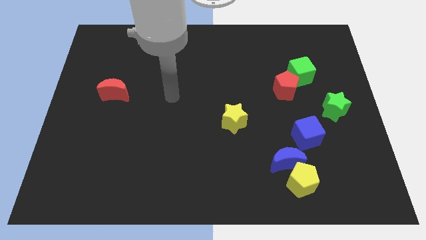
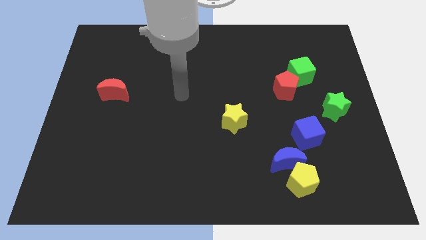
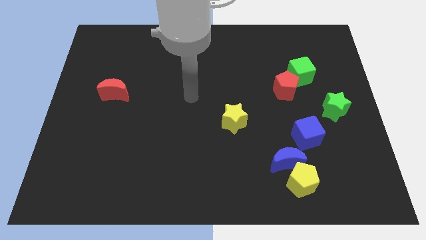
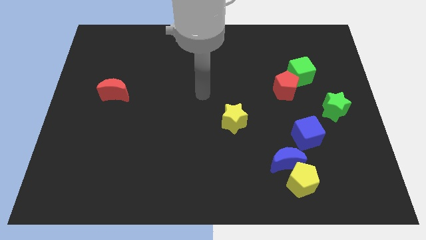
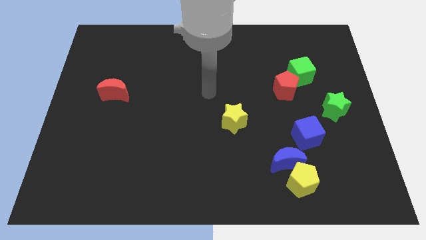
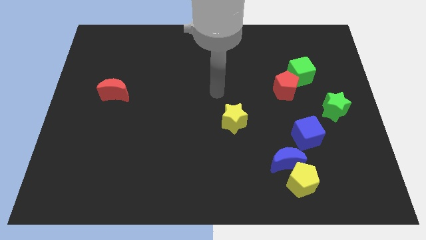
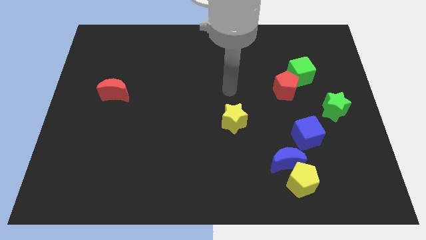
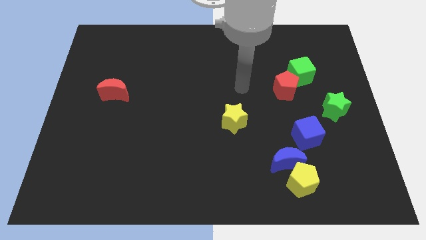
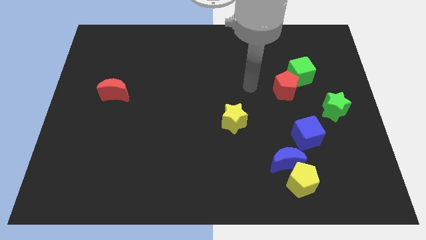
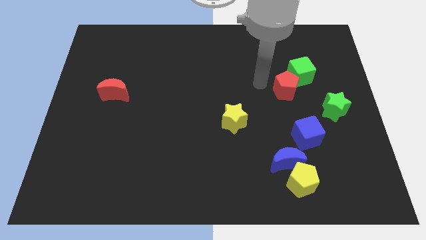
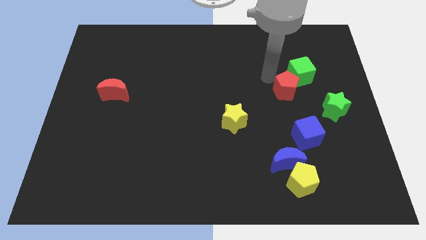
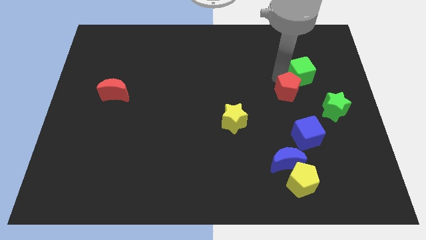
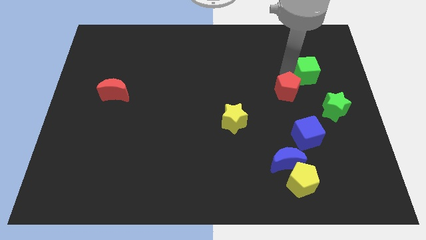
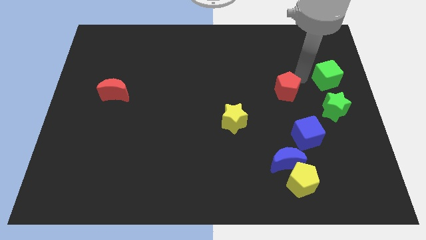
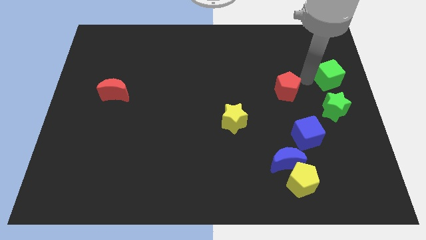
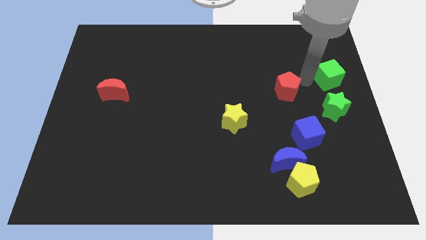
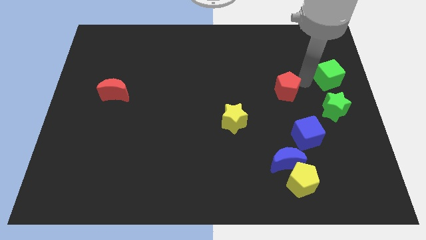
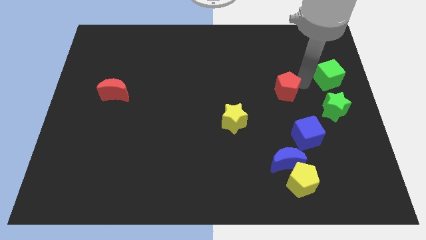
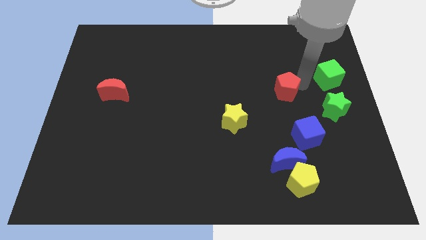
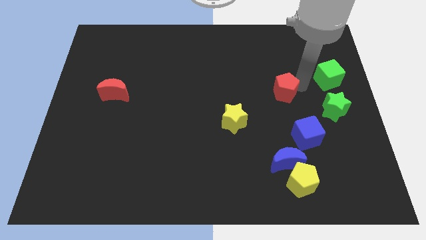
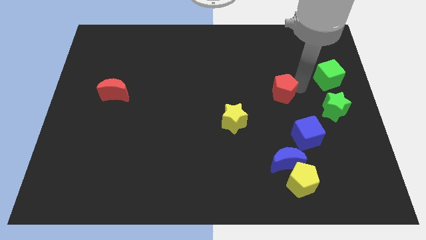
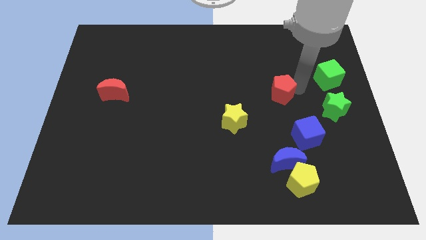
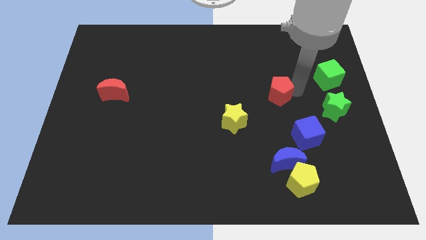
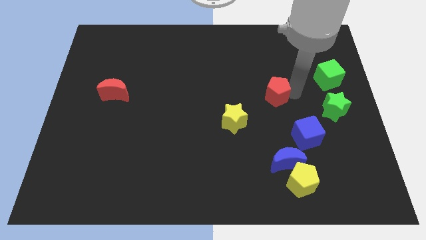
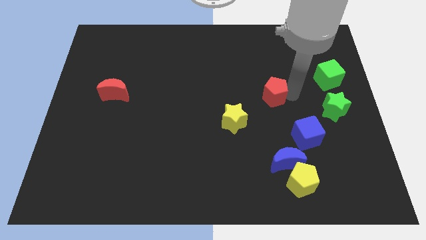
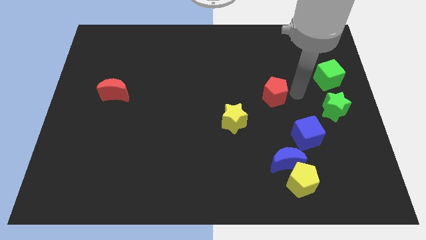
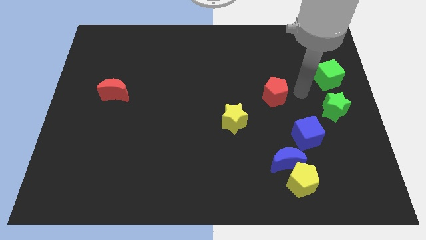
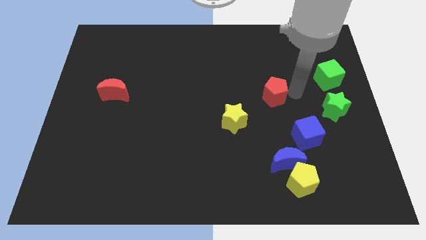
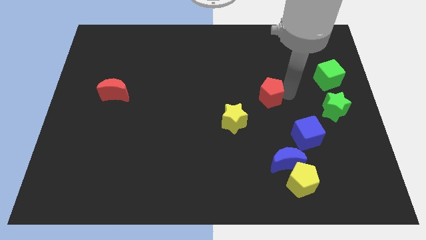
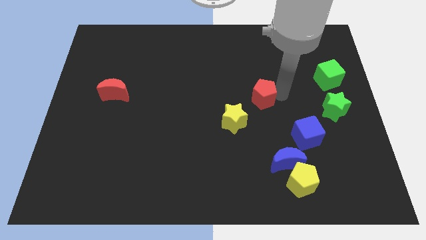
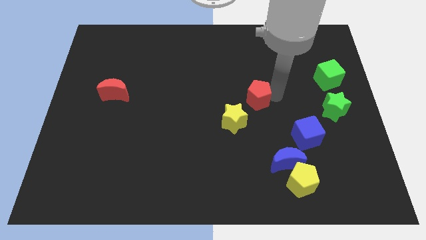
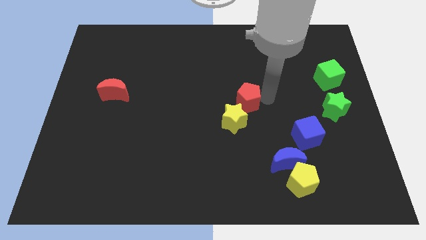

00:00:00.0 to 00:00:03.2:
slide the red pentagon a little left

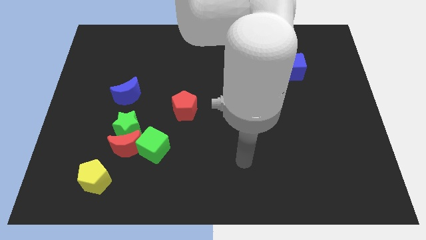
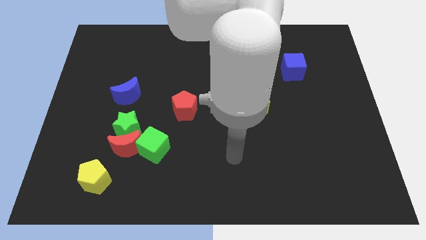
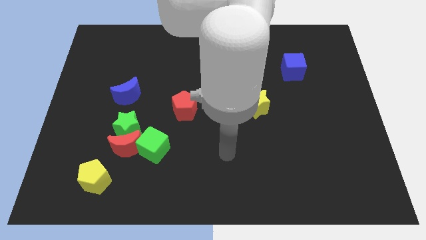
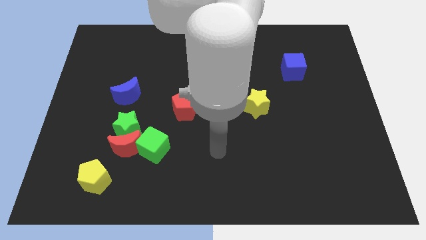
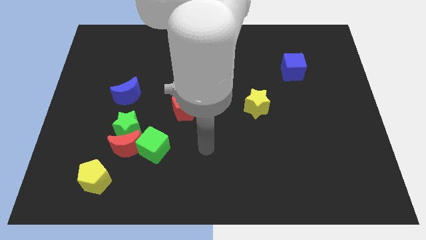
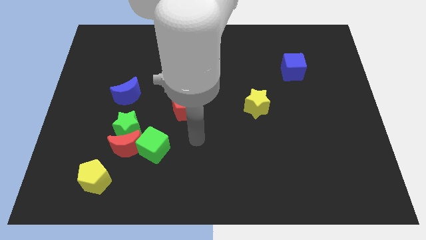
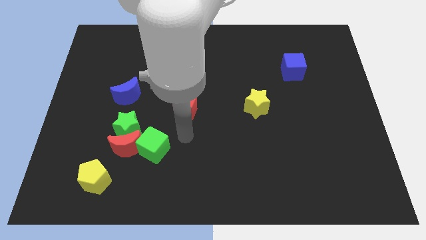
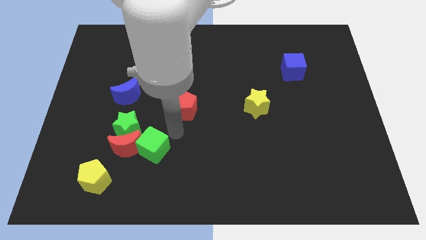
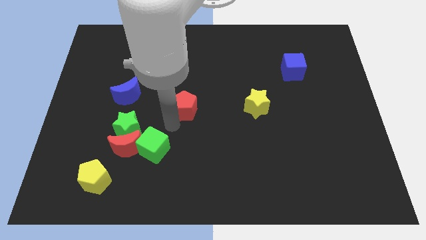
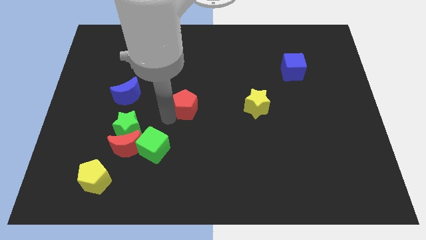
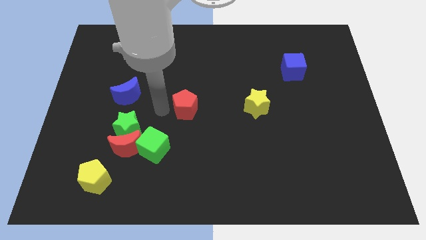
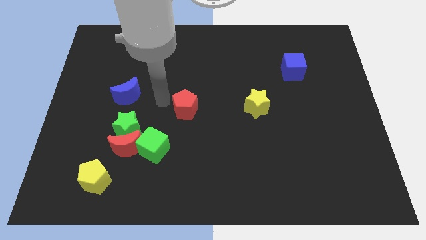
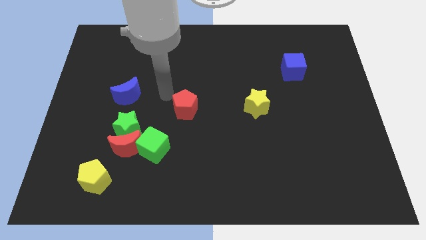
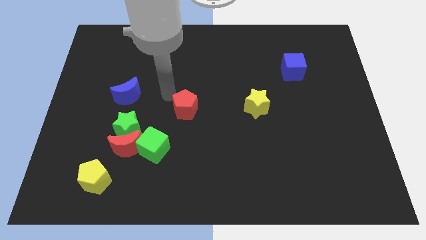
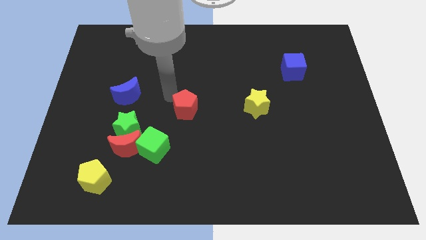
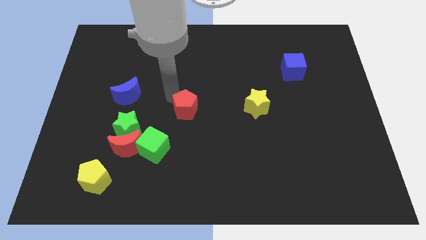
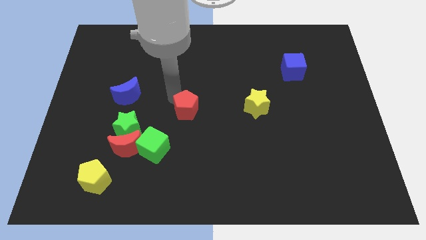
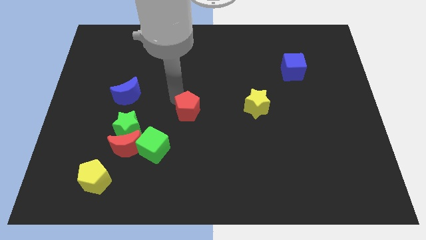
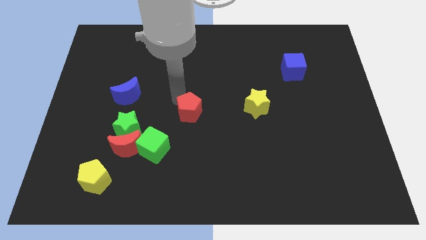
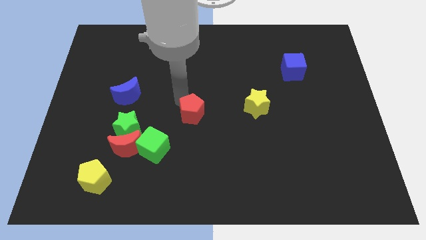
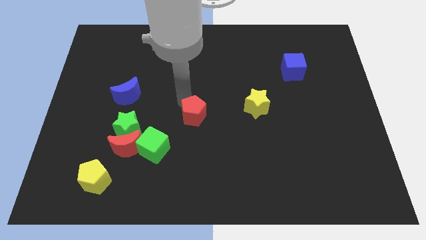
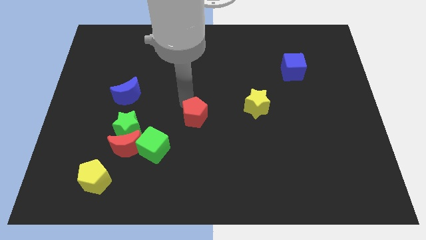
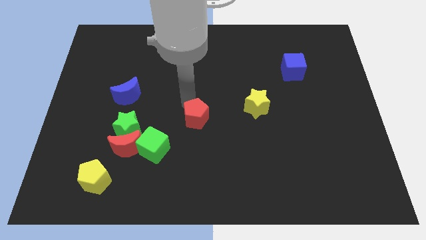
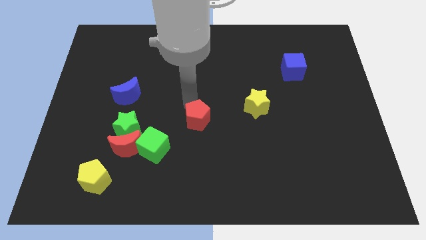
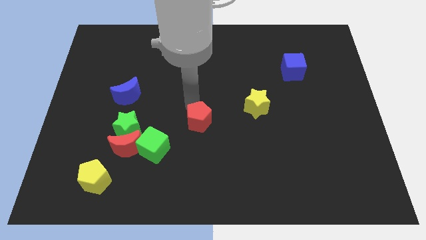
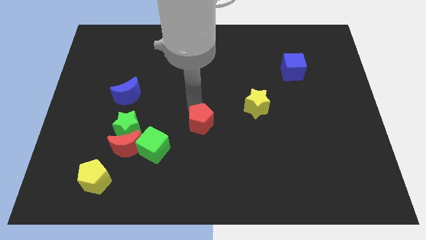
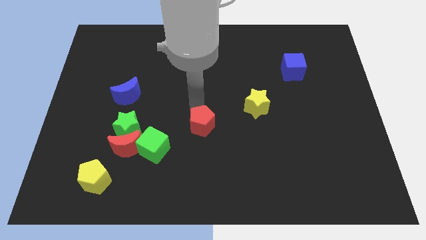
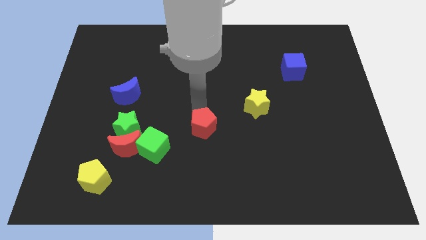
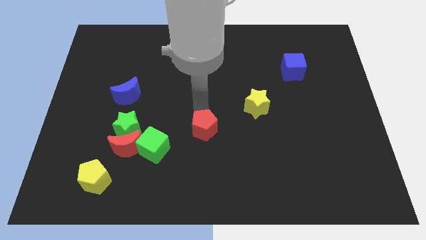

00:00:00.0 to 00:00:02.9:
slightly push the red pentagon diagonally downwards and right

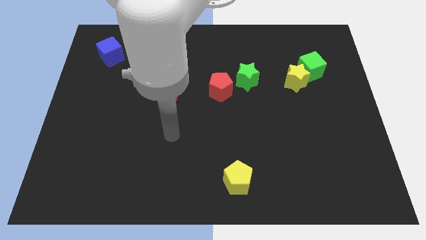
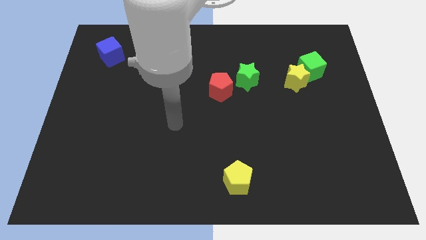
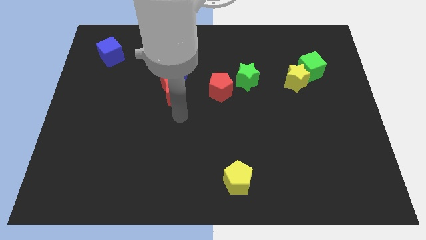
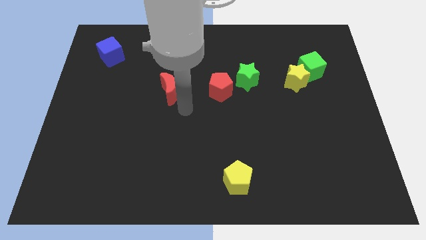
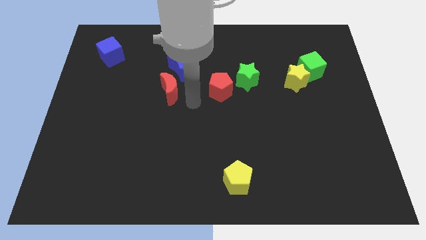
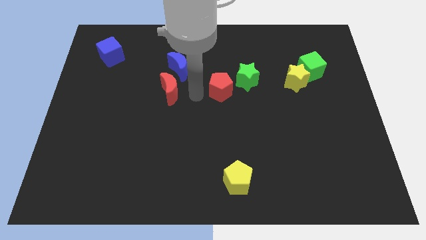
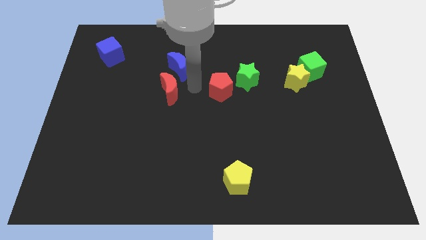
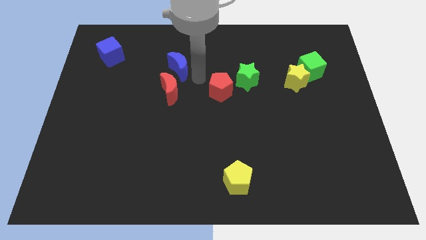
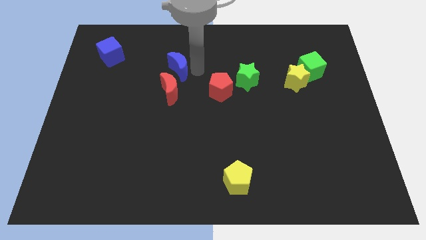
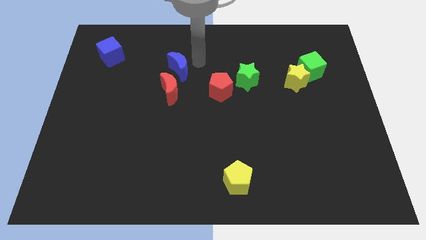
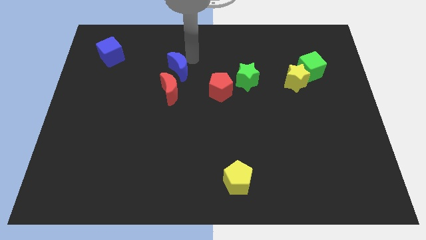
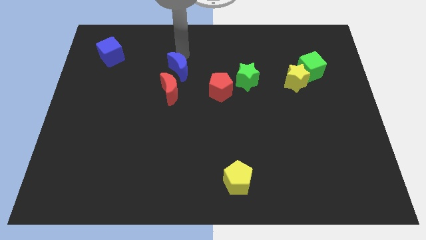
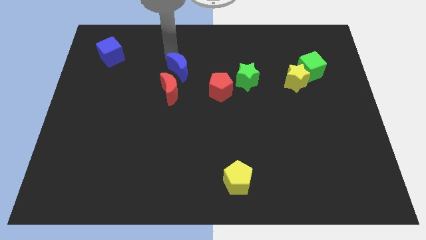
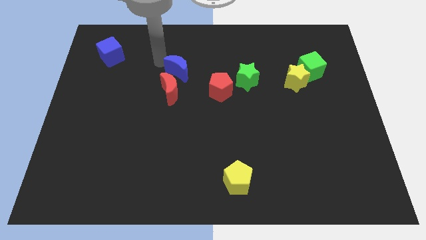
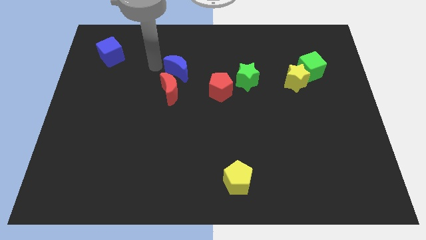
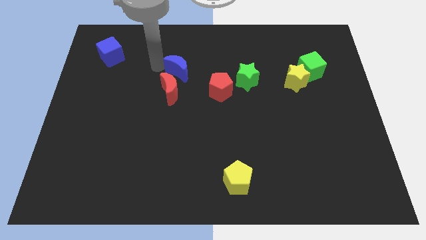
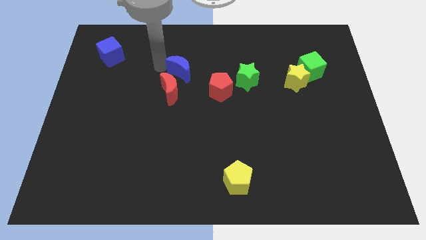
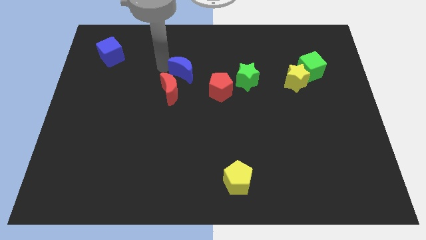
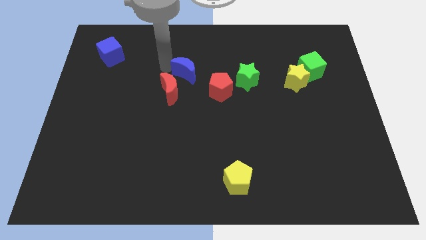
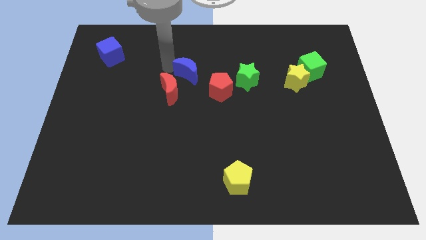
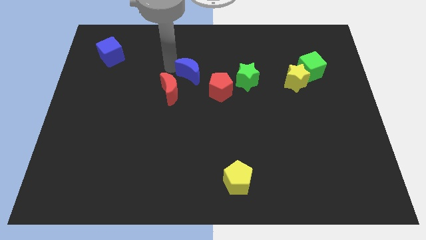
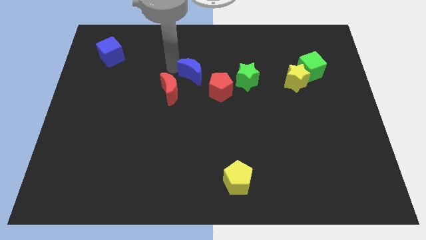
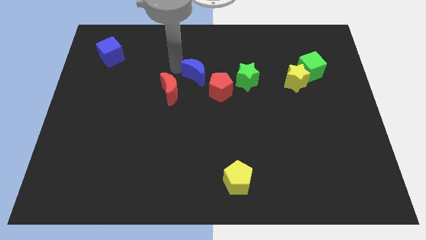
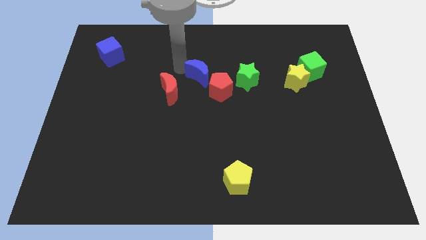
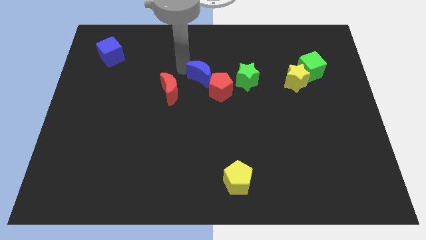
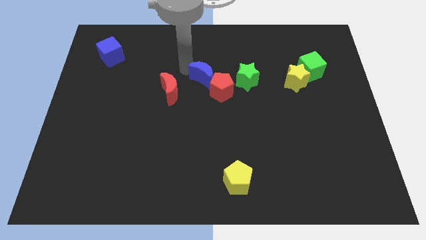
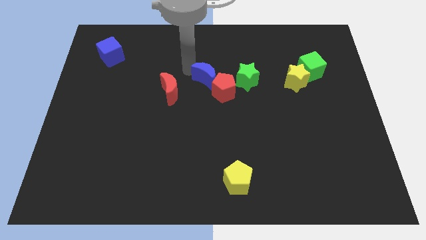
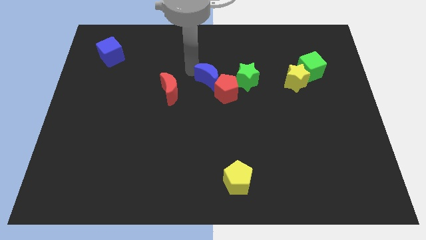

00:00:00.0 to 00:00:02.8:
slightly push the blue moon to the right
